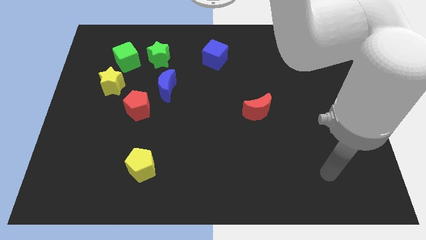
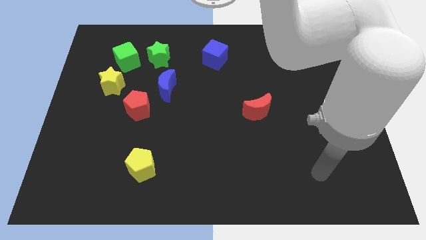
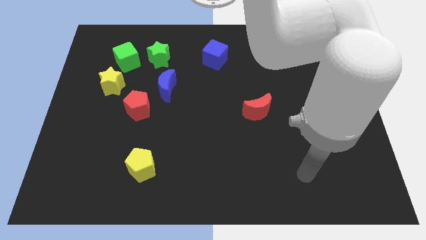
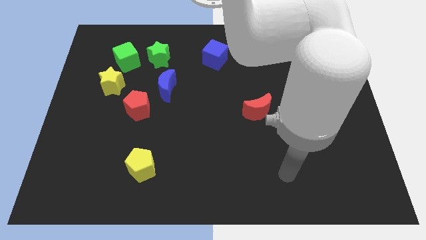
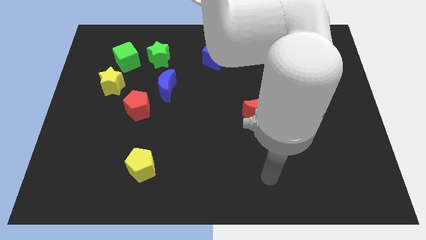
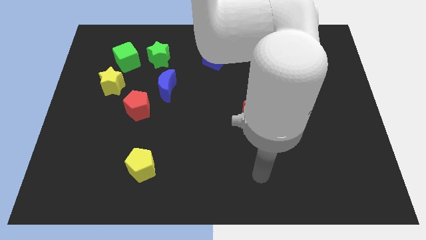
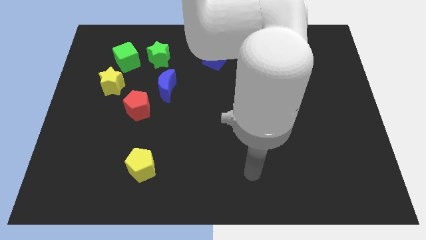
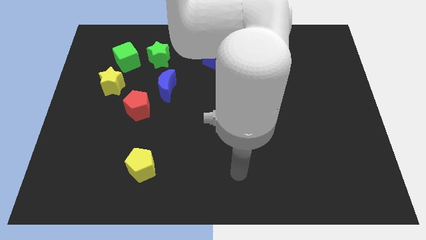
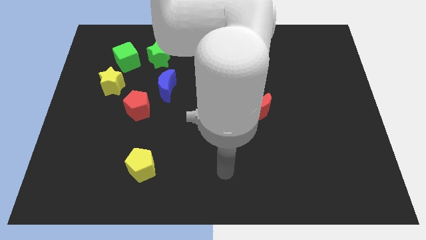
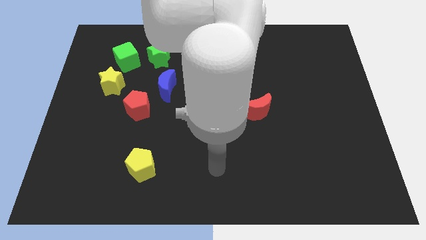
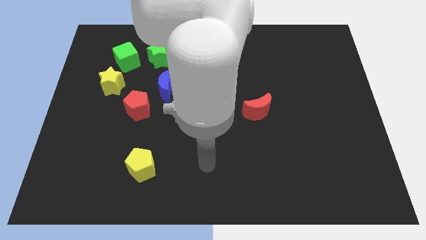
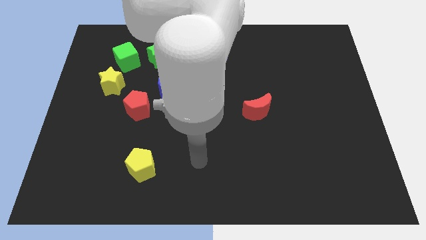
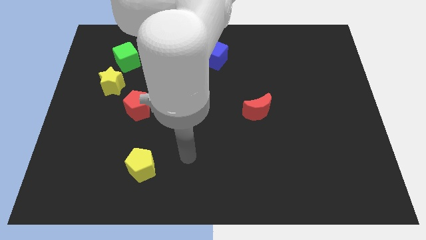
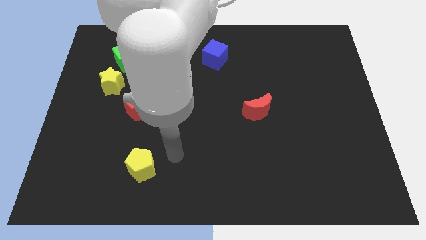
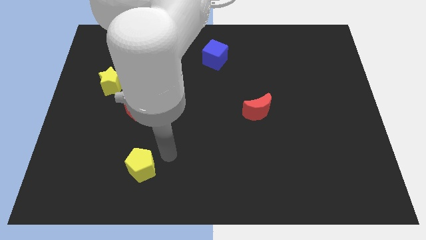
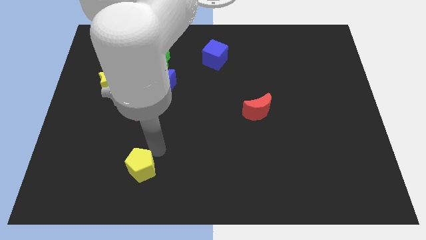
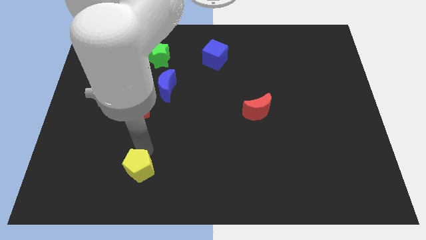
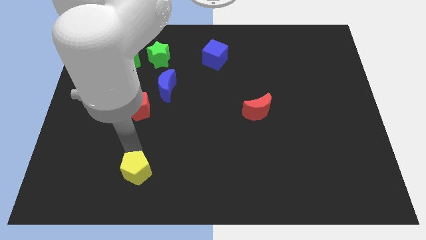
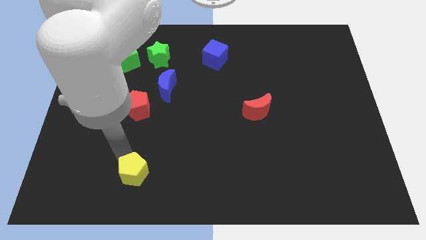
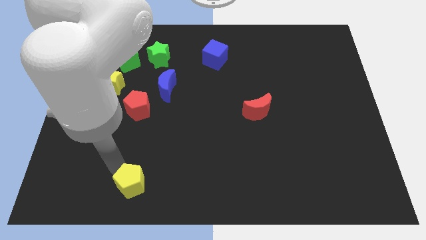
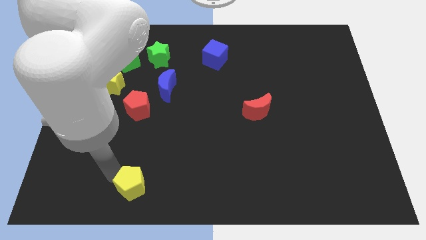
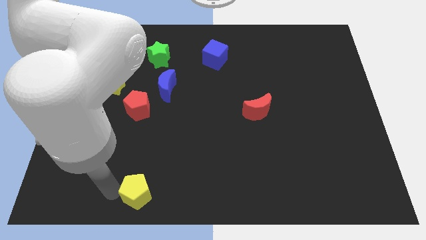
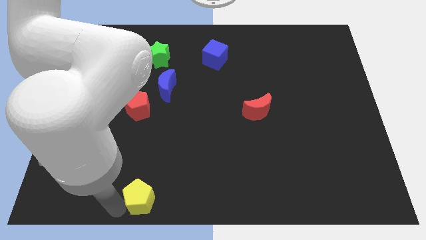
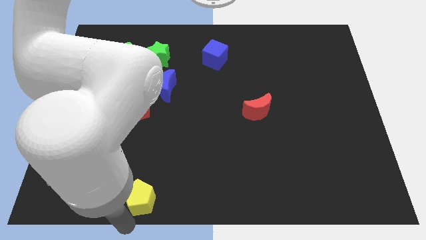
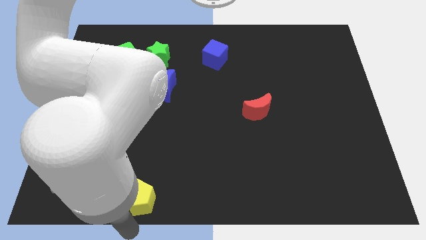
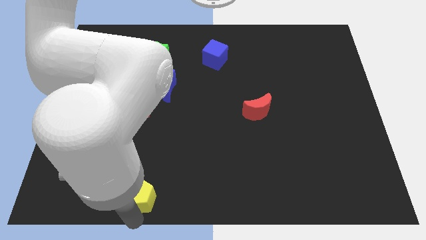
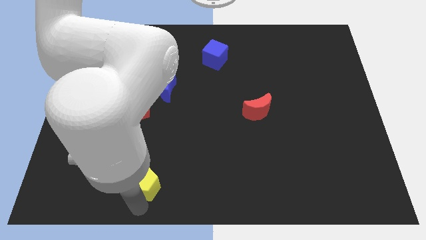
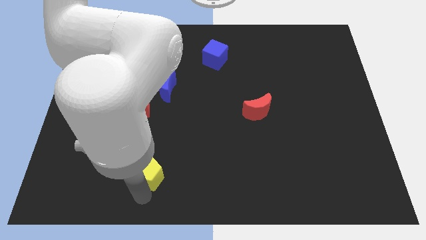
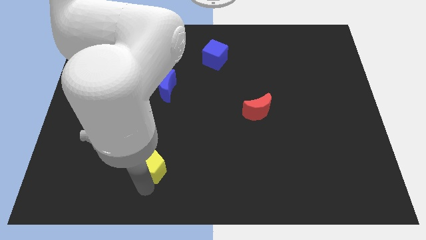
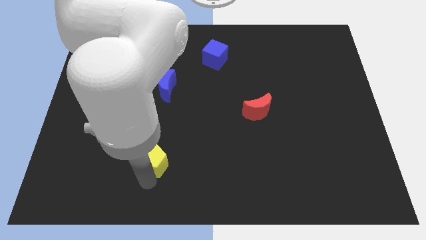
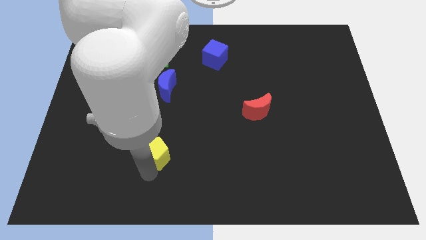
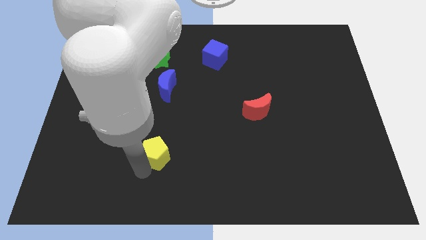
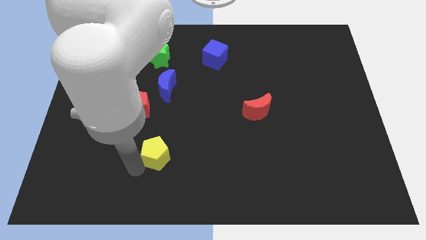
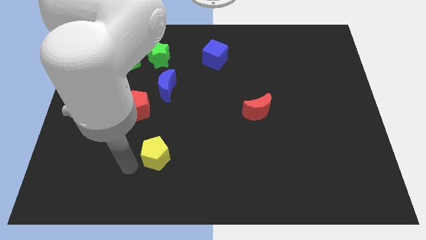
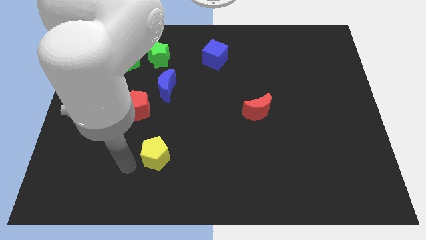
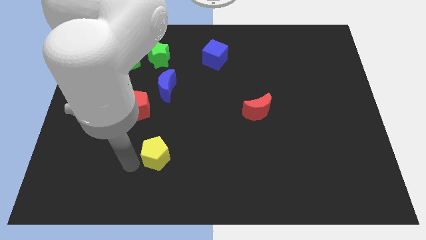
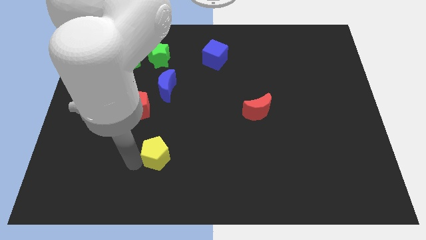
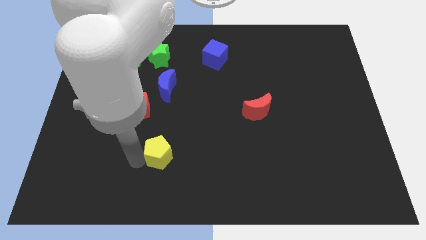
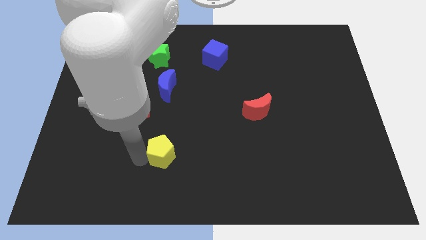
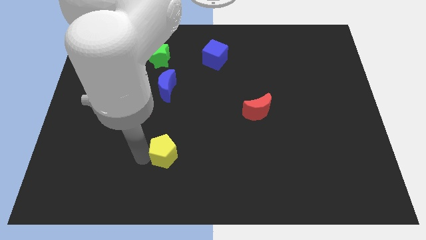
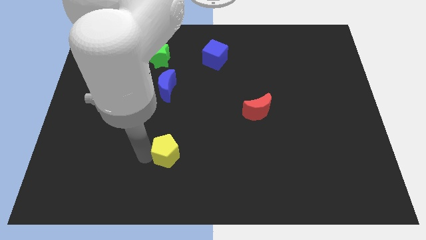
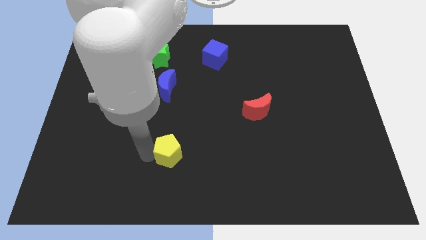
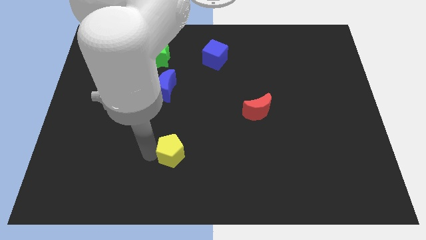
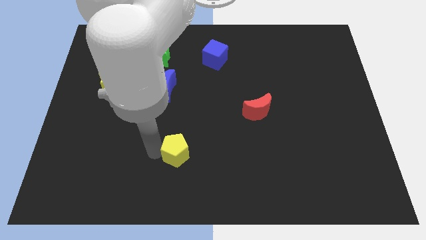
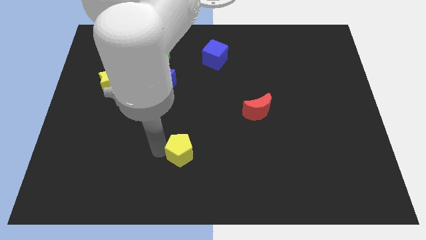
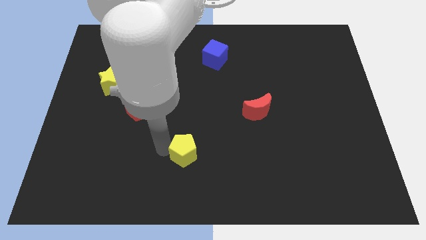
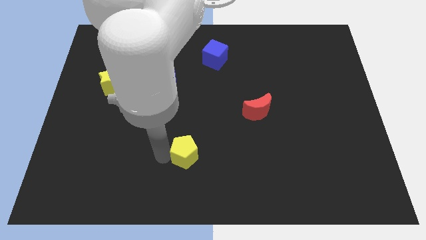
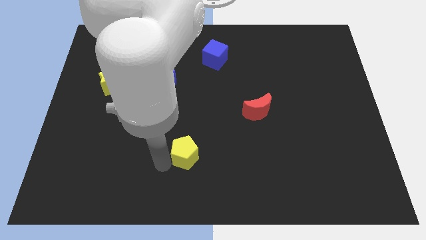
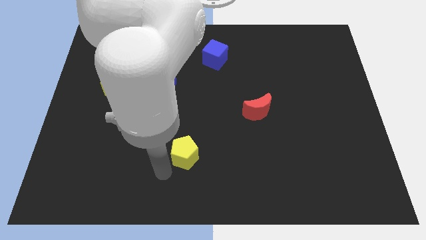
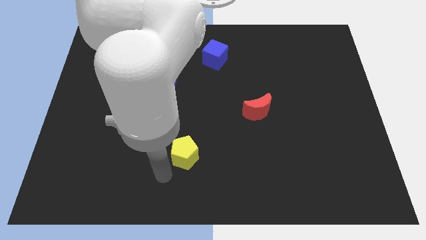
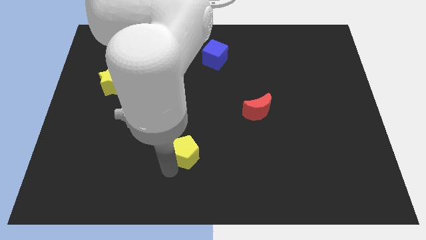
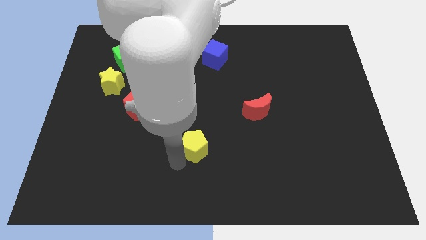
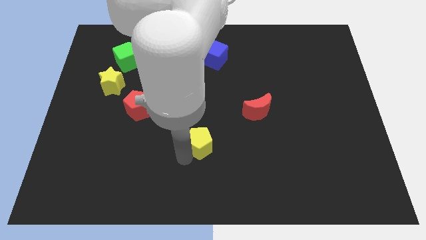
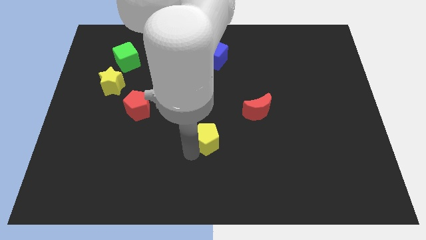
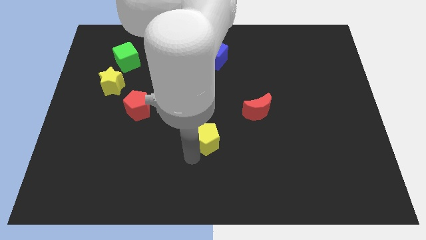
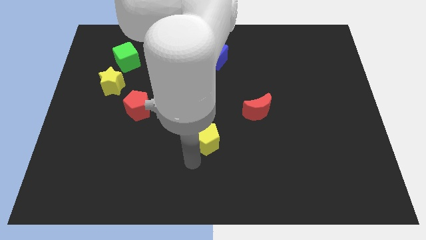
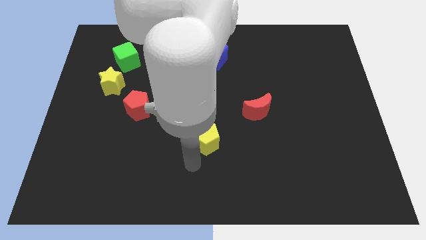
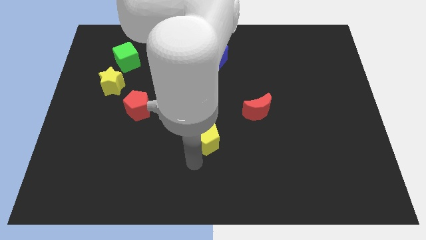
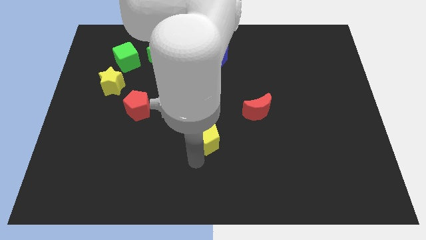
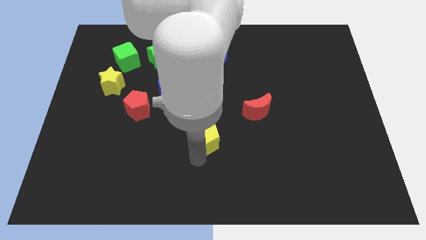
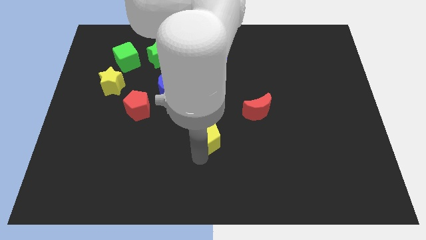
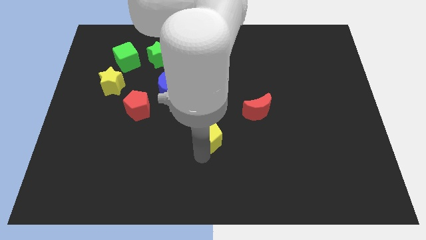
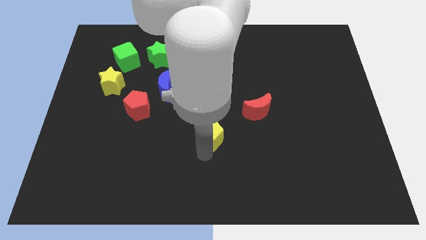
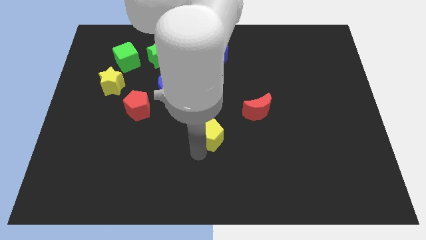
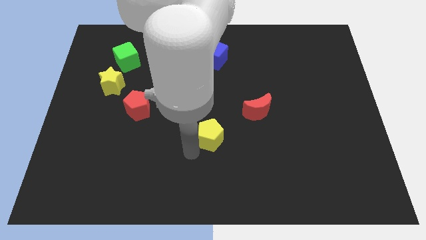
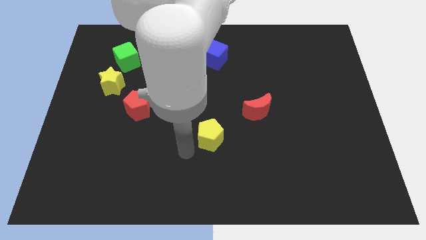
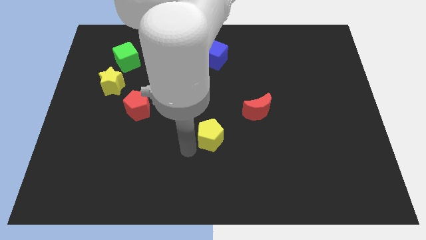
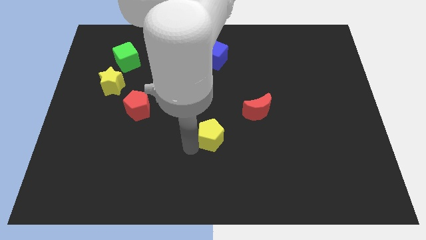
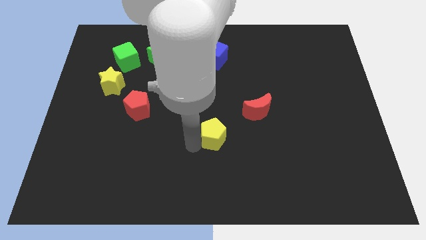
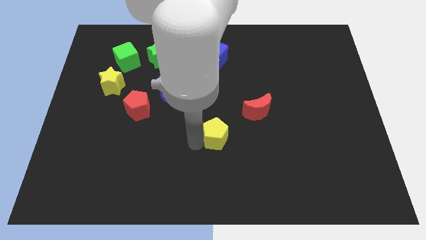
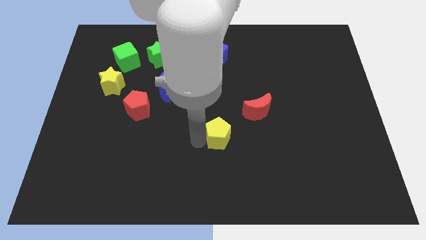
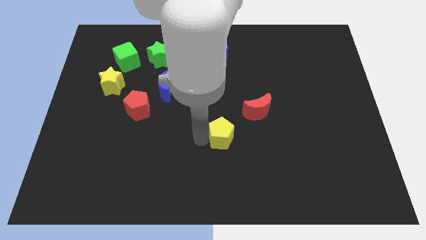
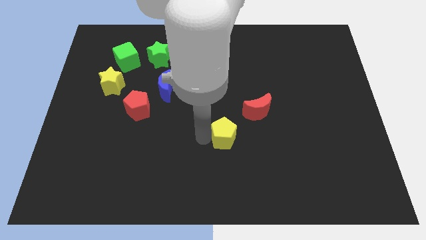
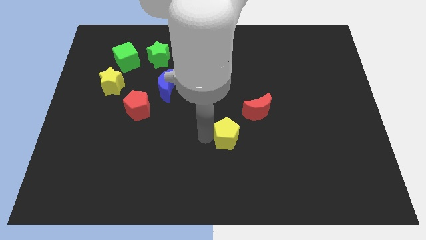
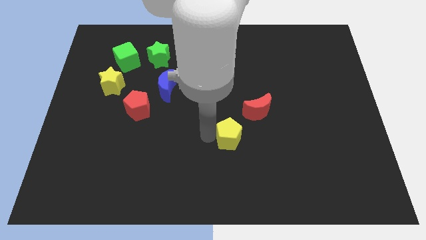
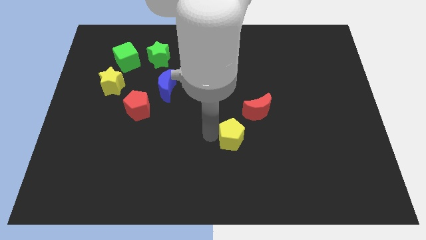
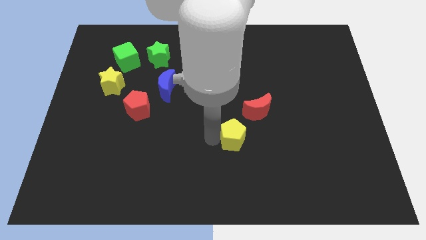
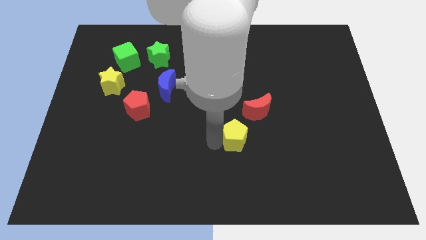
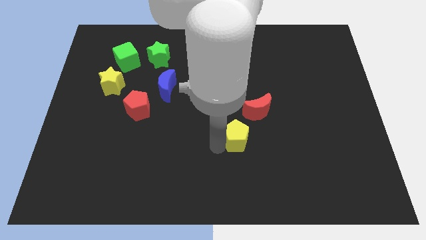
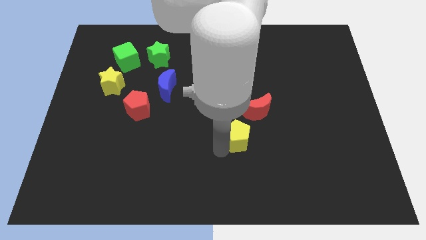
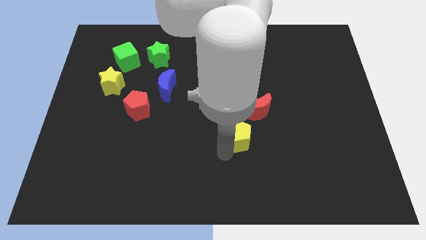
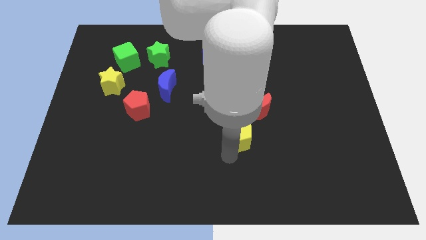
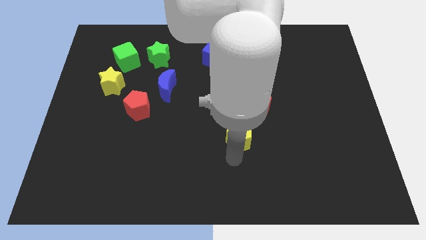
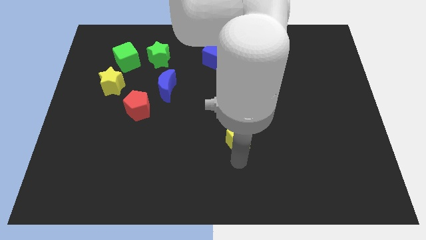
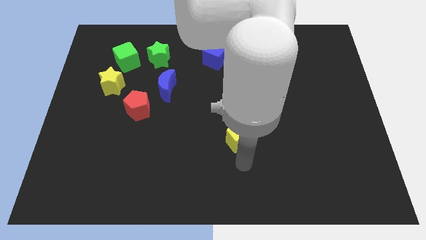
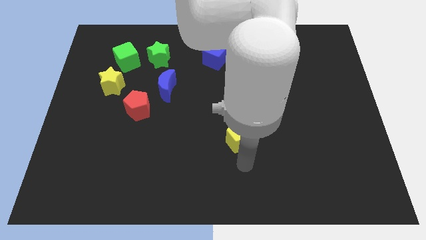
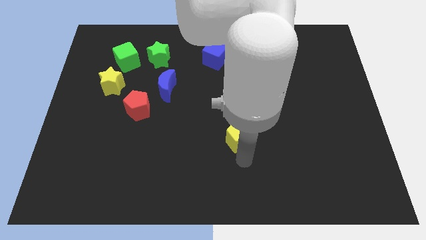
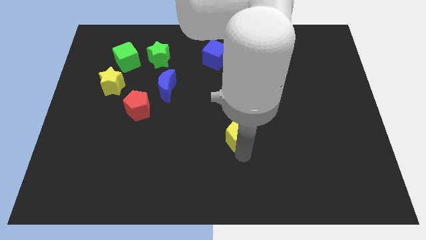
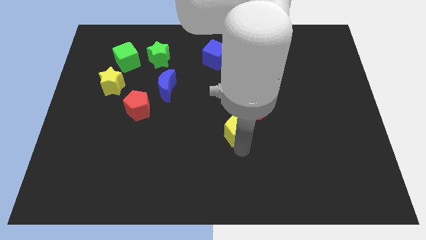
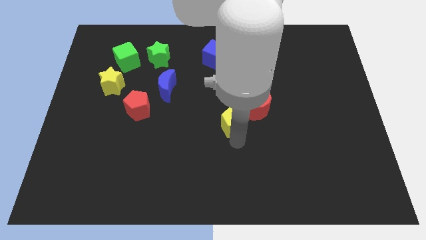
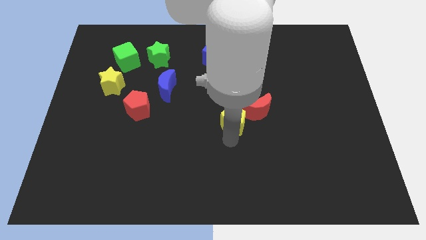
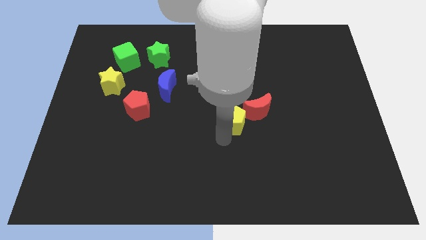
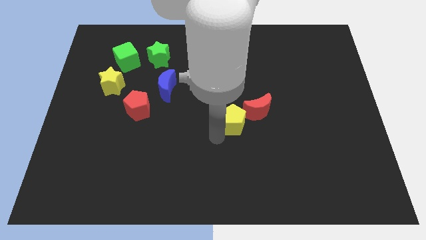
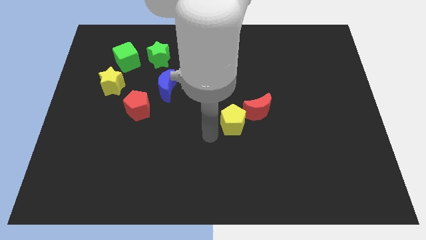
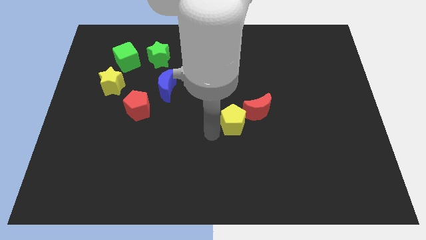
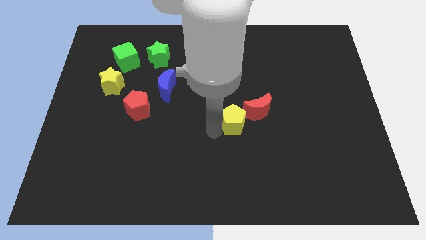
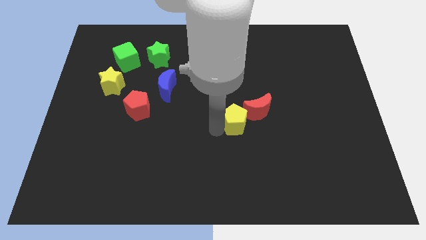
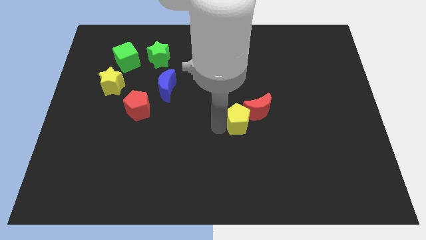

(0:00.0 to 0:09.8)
slide the yellow pentagon towards the red moon
